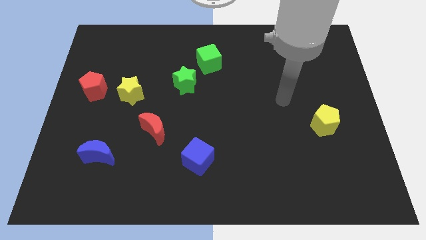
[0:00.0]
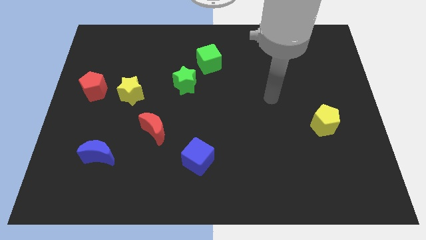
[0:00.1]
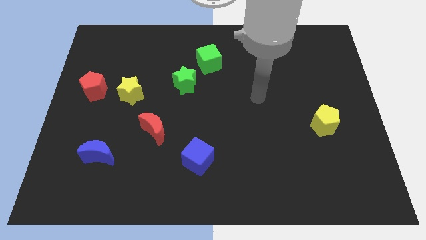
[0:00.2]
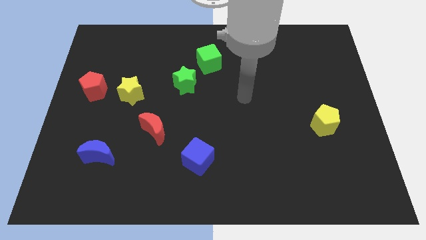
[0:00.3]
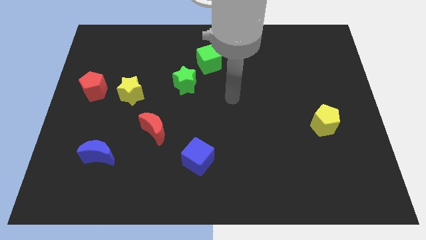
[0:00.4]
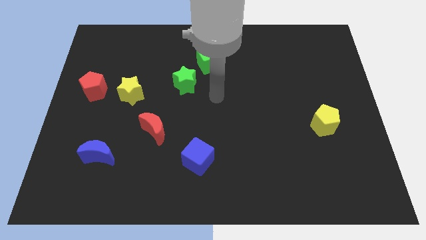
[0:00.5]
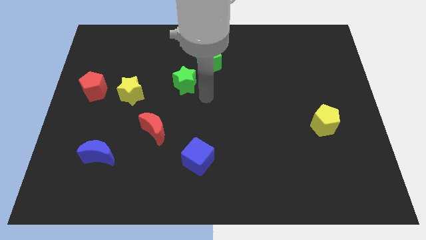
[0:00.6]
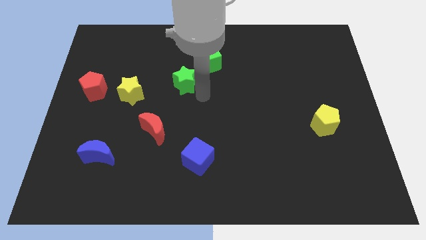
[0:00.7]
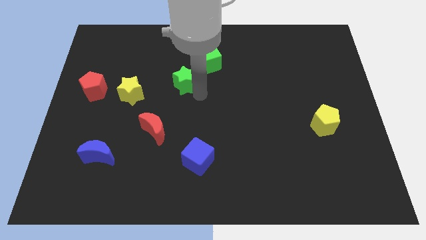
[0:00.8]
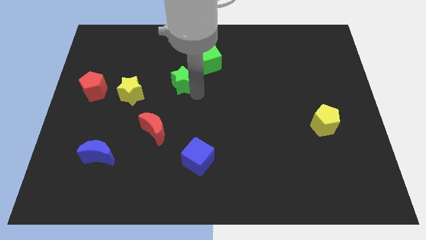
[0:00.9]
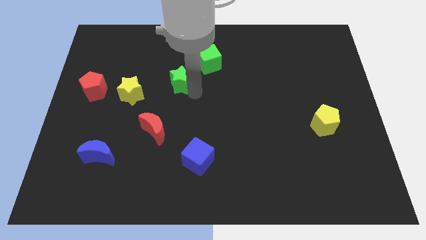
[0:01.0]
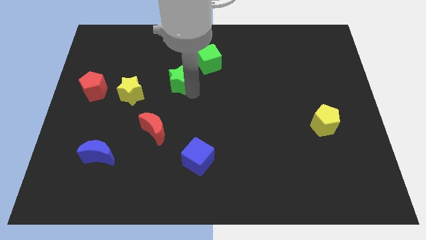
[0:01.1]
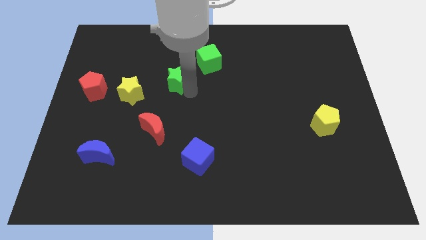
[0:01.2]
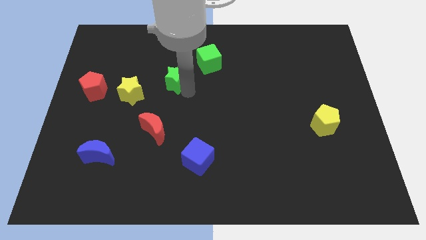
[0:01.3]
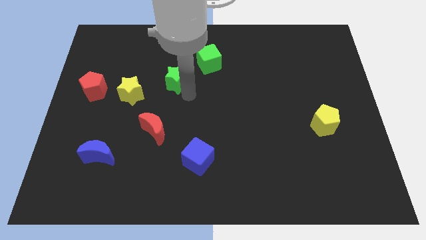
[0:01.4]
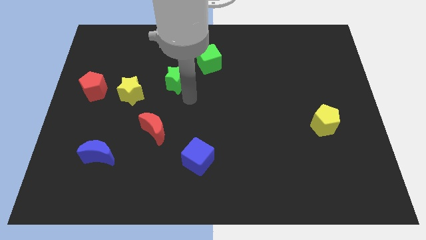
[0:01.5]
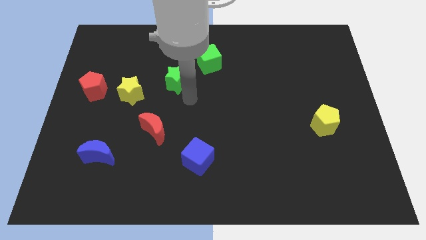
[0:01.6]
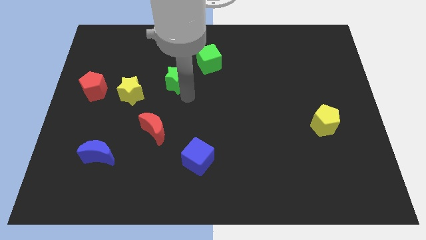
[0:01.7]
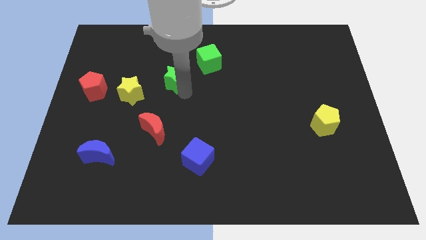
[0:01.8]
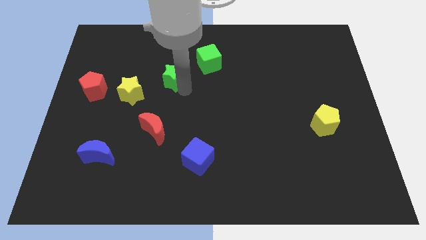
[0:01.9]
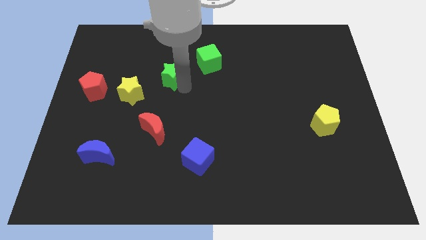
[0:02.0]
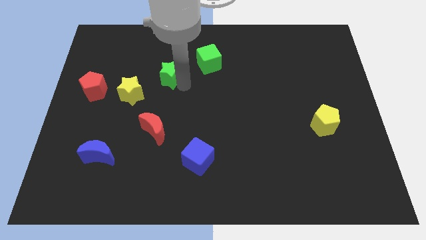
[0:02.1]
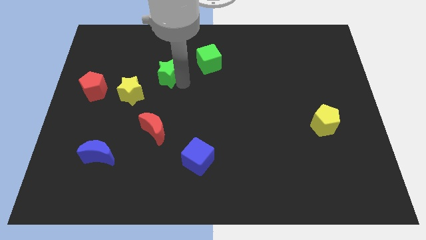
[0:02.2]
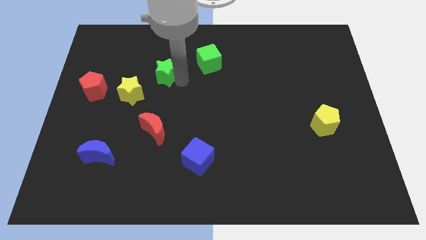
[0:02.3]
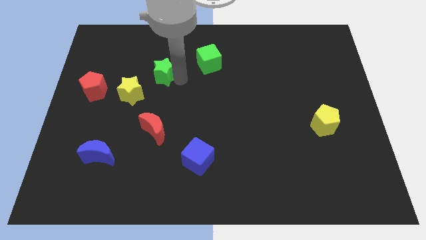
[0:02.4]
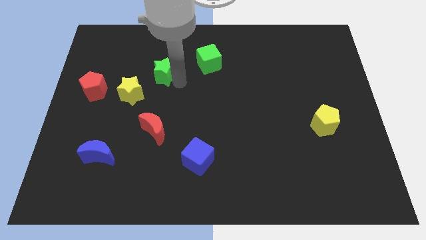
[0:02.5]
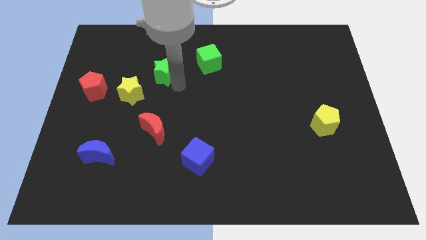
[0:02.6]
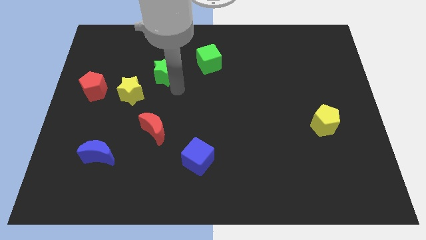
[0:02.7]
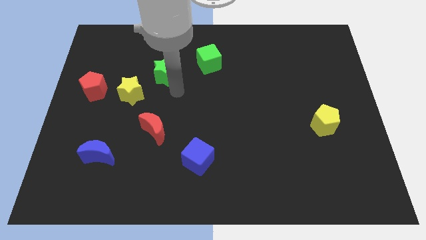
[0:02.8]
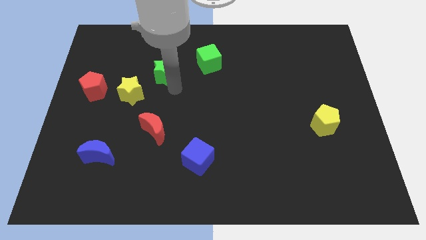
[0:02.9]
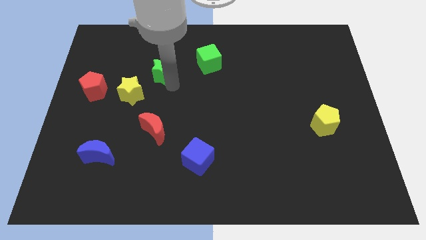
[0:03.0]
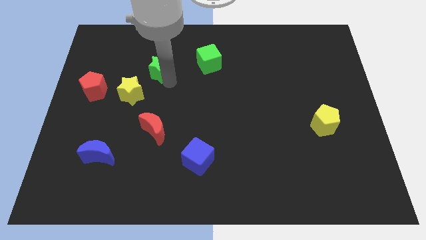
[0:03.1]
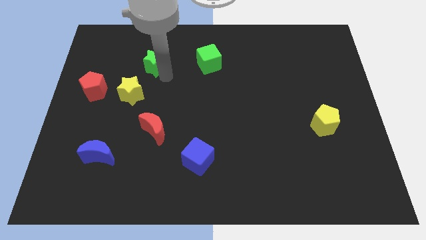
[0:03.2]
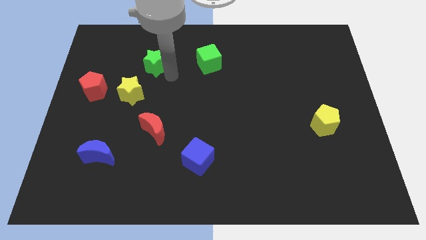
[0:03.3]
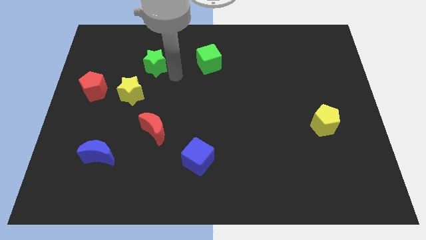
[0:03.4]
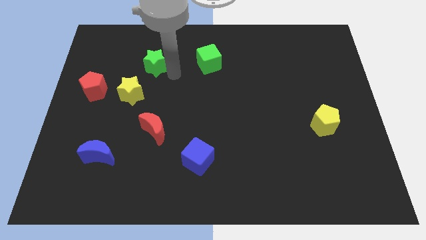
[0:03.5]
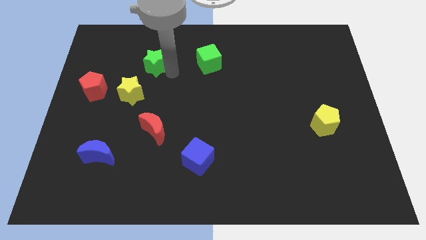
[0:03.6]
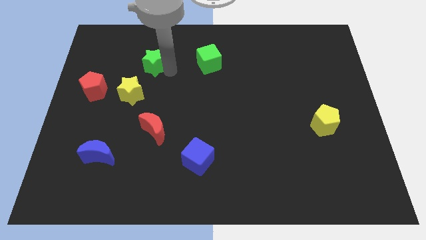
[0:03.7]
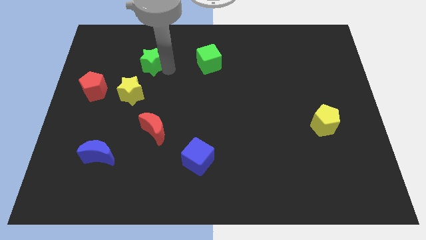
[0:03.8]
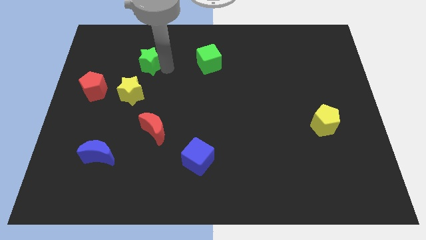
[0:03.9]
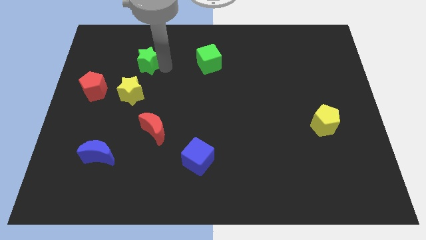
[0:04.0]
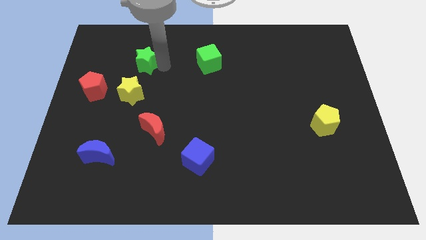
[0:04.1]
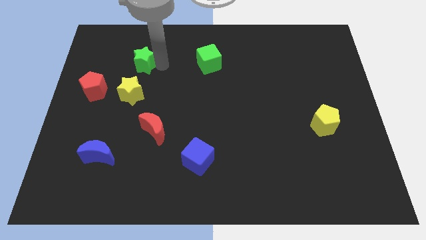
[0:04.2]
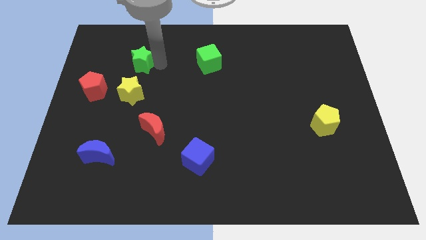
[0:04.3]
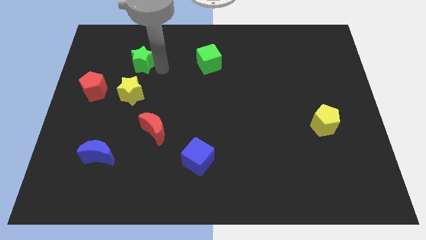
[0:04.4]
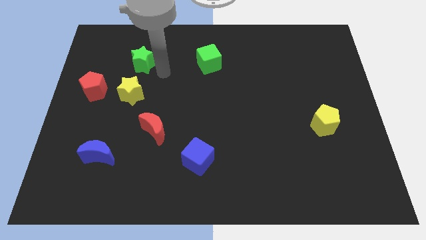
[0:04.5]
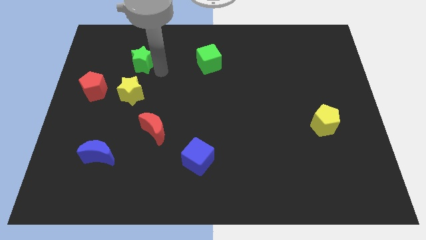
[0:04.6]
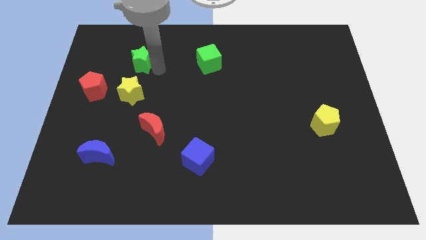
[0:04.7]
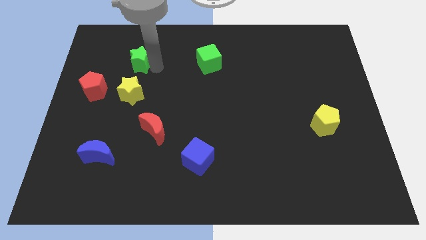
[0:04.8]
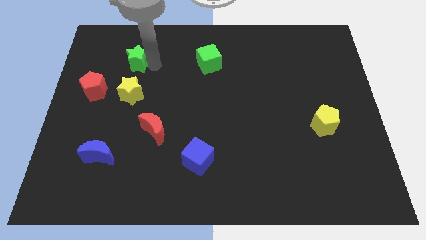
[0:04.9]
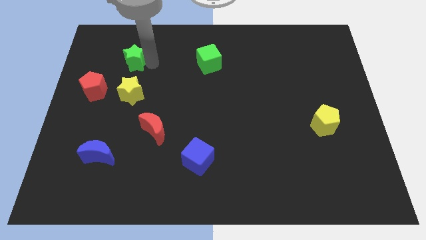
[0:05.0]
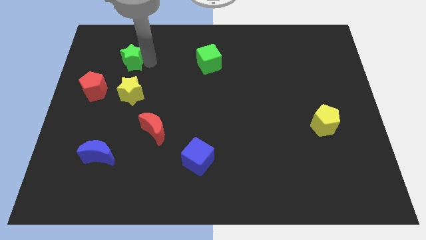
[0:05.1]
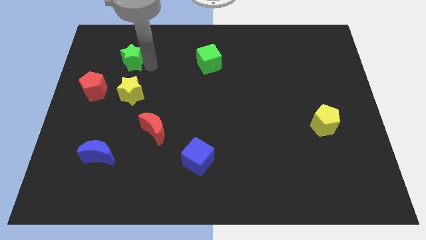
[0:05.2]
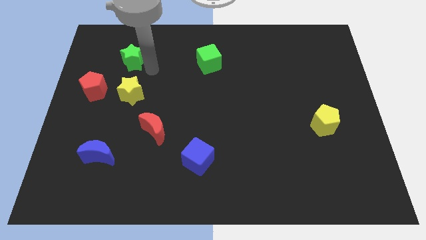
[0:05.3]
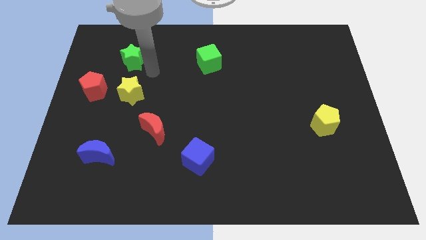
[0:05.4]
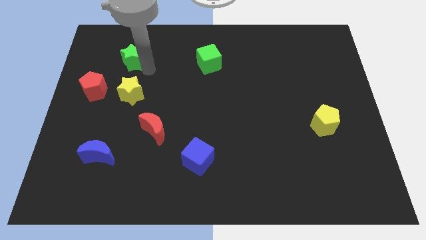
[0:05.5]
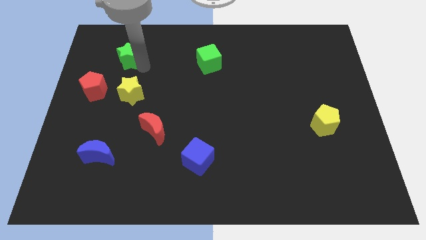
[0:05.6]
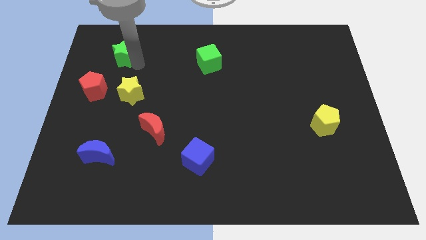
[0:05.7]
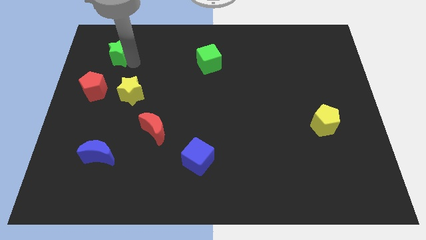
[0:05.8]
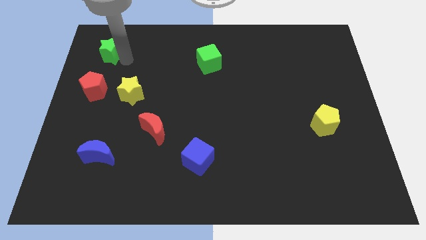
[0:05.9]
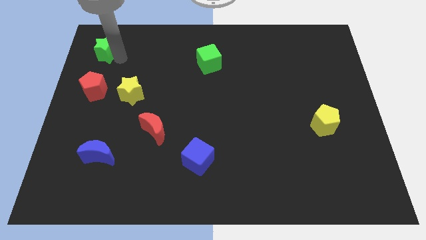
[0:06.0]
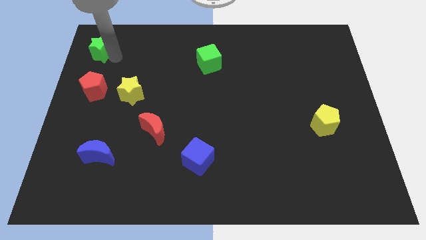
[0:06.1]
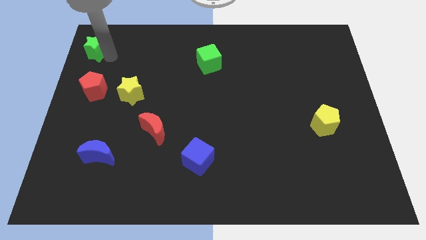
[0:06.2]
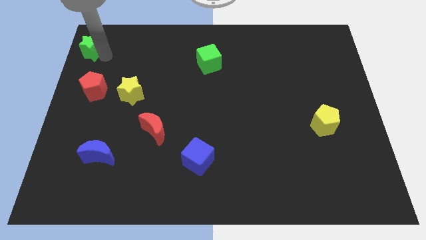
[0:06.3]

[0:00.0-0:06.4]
slide the green star to the top left of the board

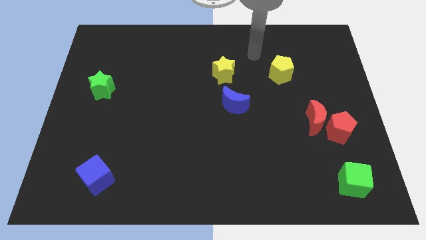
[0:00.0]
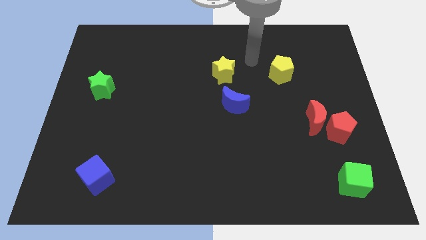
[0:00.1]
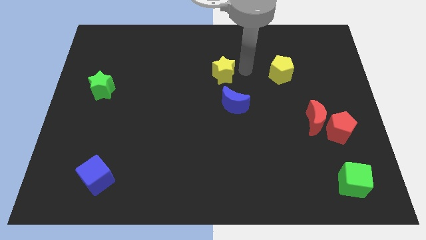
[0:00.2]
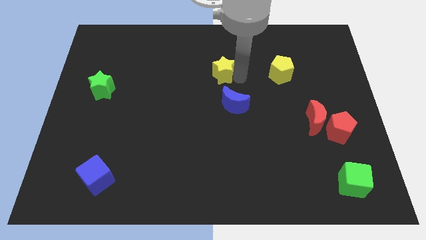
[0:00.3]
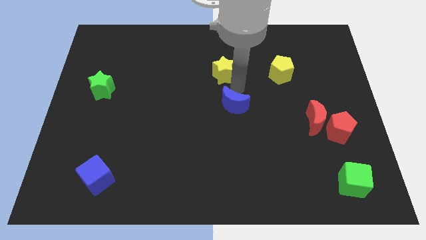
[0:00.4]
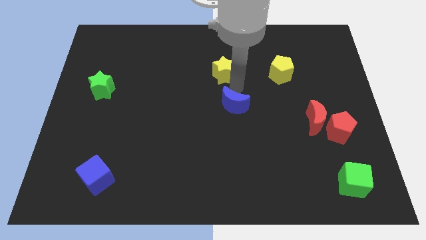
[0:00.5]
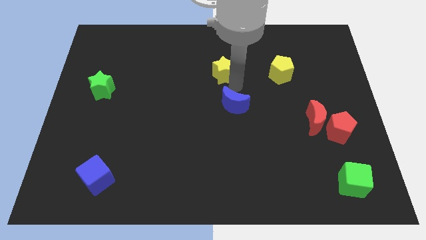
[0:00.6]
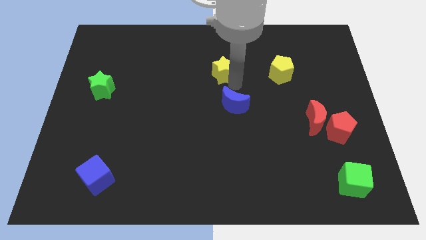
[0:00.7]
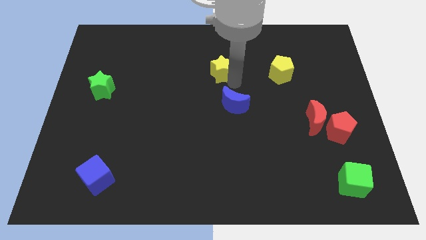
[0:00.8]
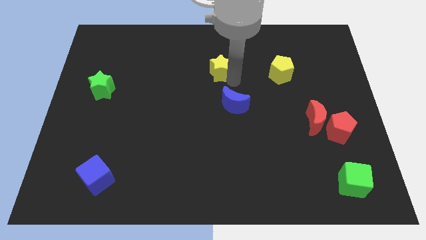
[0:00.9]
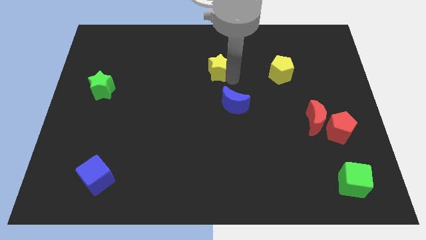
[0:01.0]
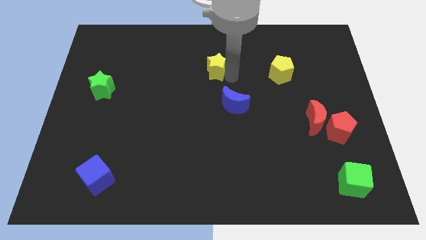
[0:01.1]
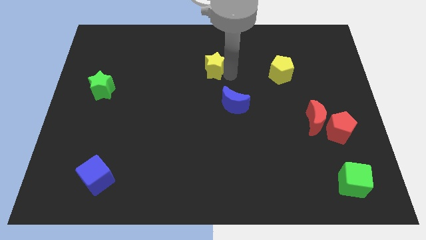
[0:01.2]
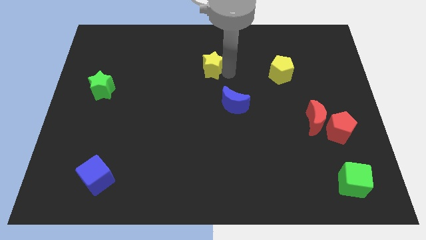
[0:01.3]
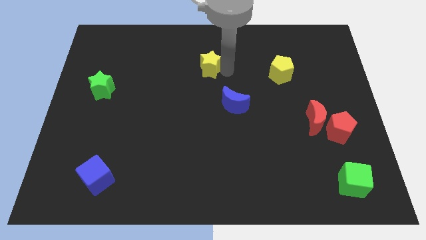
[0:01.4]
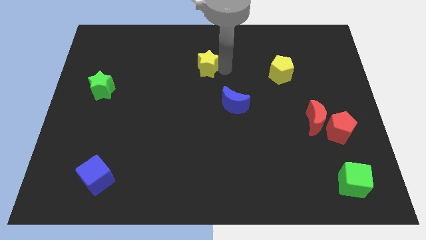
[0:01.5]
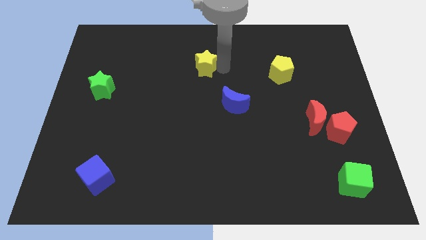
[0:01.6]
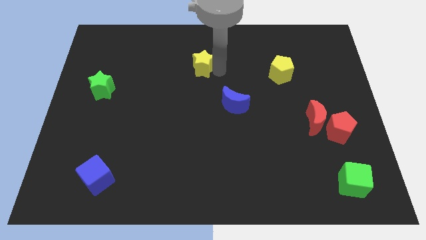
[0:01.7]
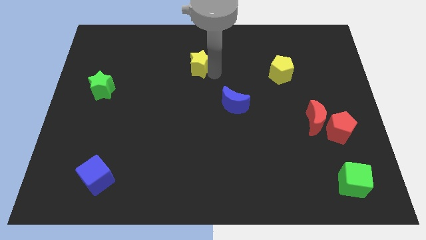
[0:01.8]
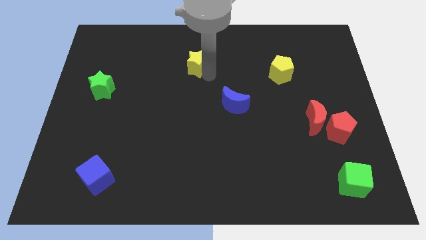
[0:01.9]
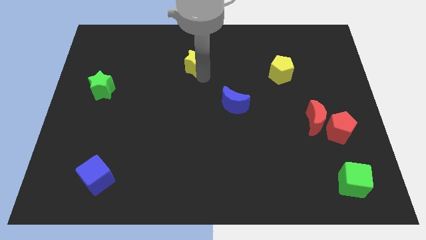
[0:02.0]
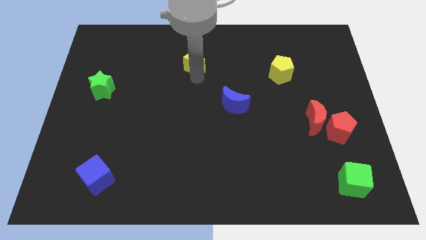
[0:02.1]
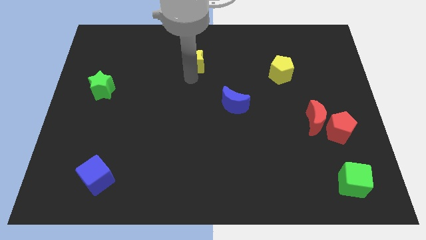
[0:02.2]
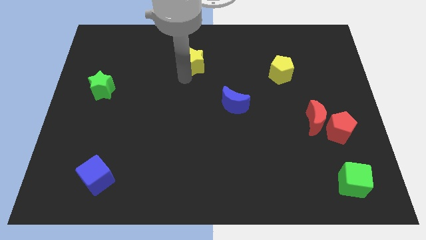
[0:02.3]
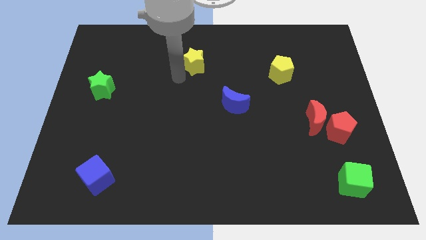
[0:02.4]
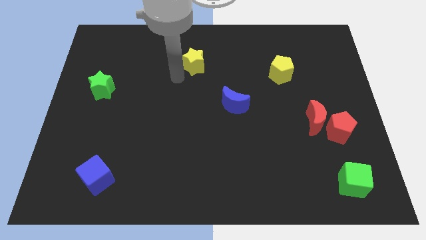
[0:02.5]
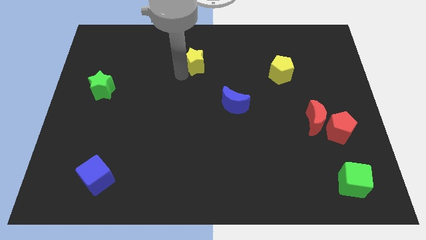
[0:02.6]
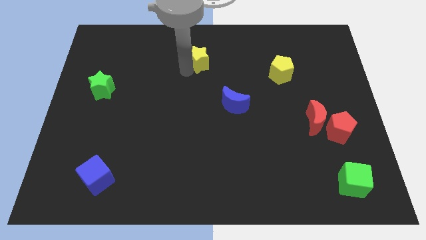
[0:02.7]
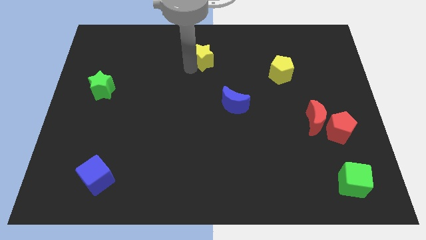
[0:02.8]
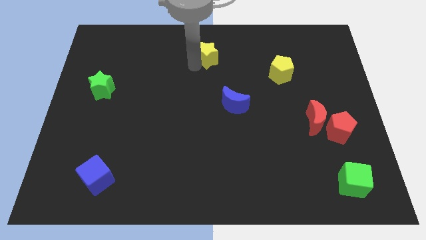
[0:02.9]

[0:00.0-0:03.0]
slide the yellow star to the top side
